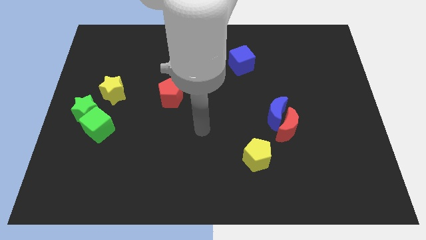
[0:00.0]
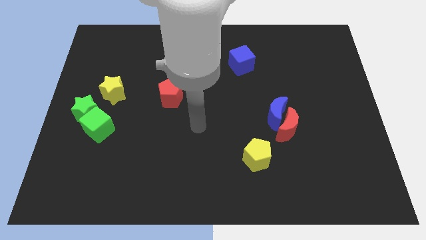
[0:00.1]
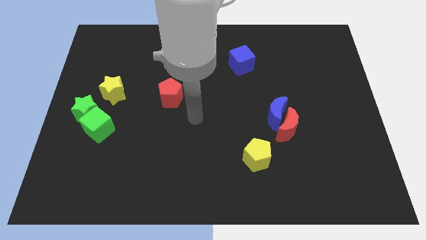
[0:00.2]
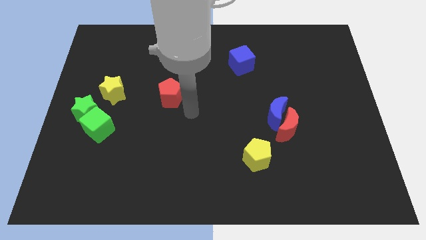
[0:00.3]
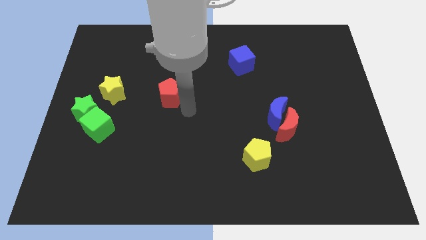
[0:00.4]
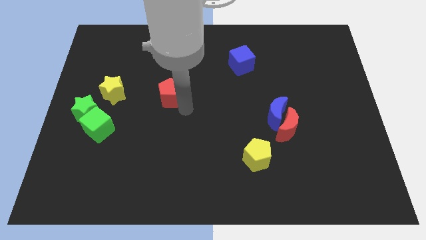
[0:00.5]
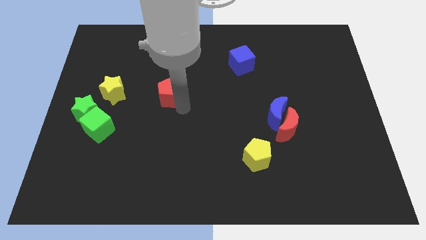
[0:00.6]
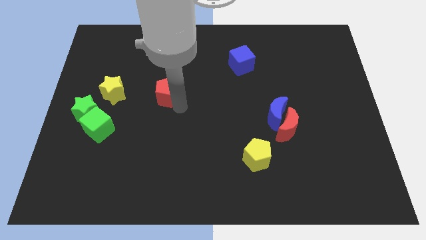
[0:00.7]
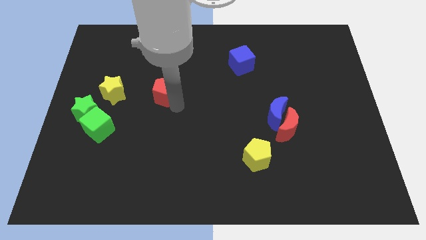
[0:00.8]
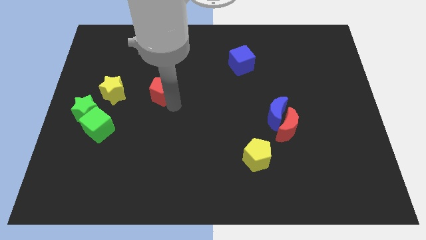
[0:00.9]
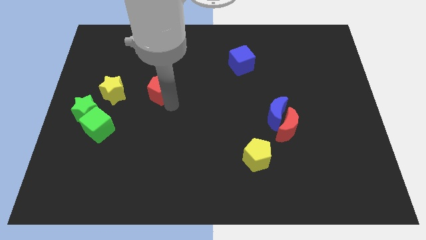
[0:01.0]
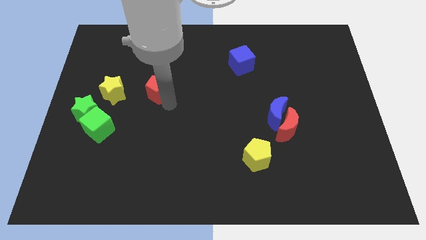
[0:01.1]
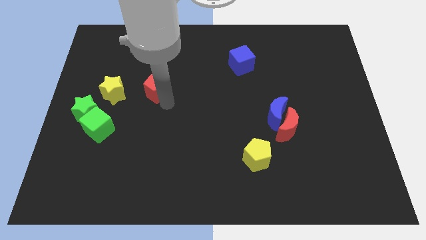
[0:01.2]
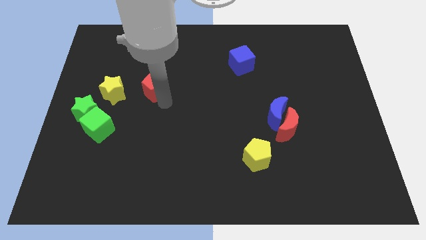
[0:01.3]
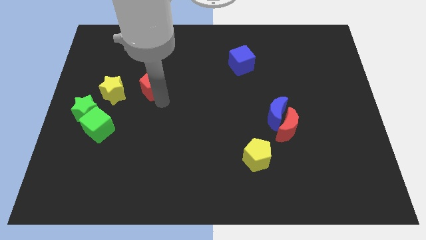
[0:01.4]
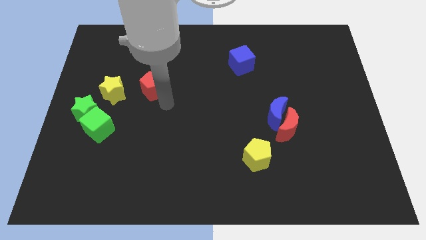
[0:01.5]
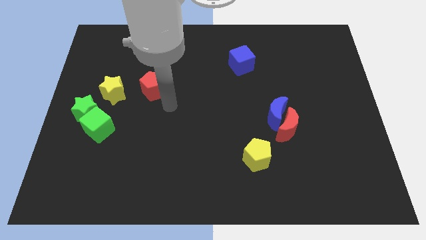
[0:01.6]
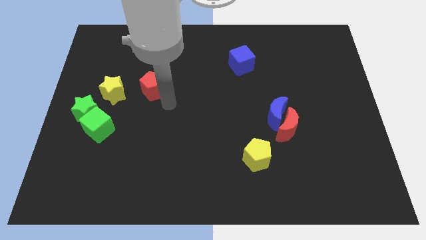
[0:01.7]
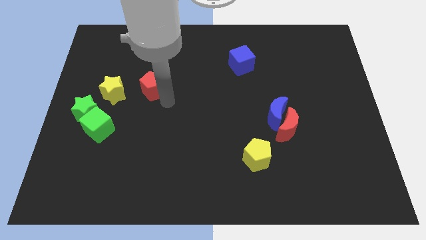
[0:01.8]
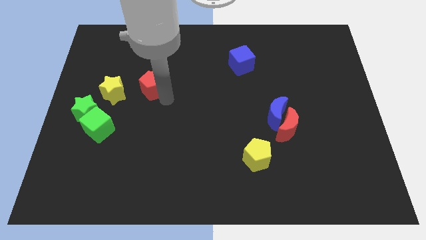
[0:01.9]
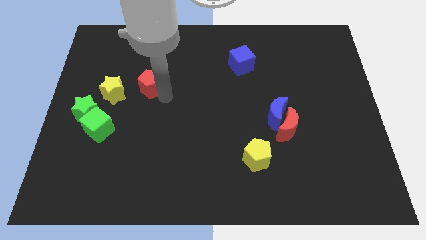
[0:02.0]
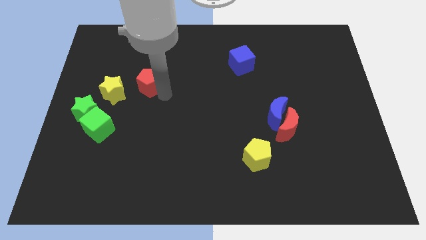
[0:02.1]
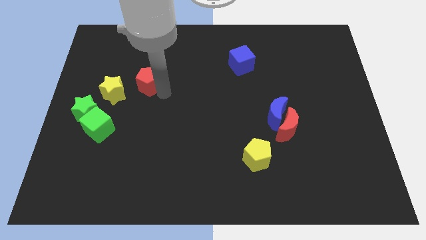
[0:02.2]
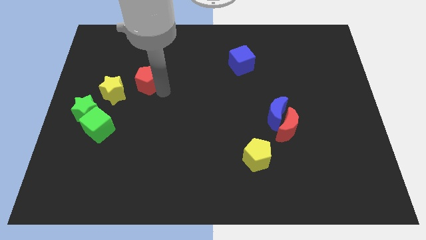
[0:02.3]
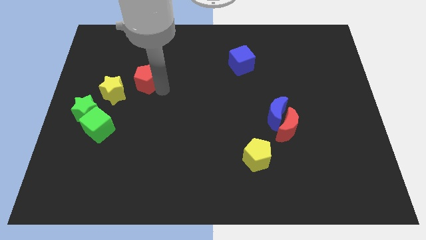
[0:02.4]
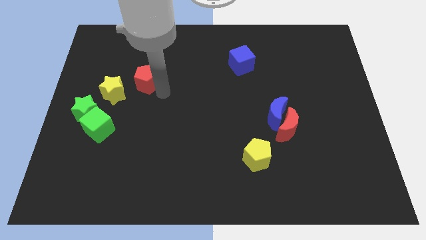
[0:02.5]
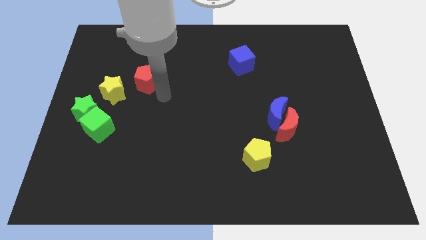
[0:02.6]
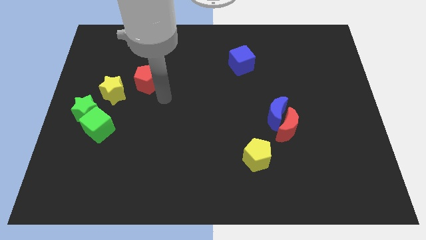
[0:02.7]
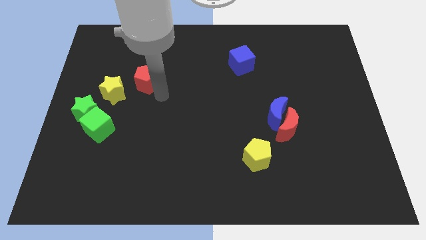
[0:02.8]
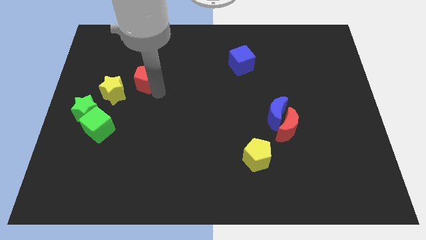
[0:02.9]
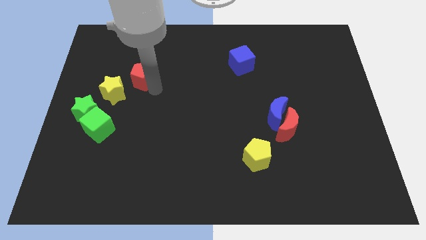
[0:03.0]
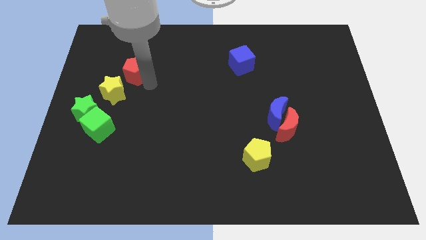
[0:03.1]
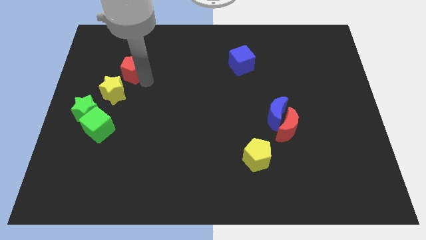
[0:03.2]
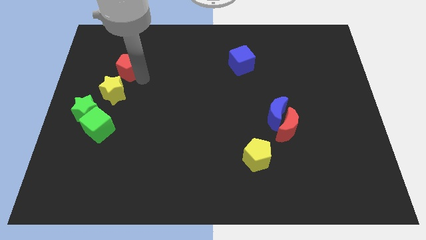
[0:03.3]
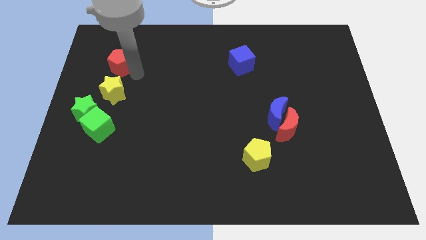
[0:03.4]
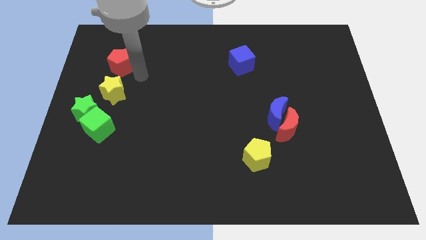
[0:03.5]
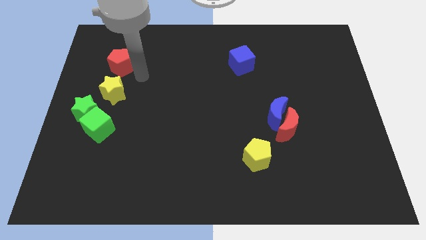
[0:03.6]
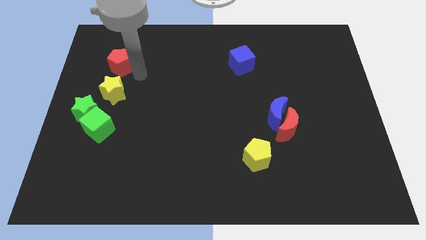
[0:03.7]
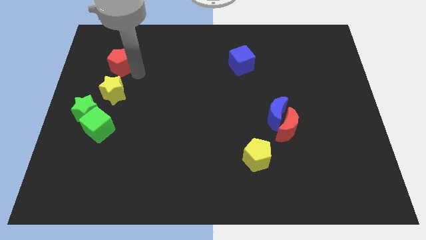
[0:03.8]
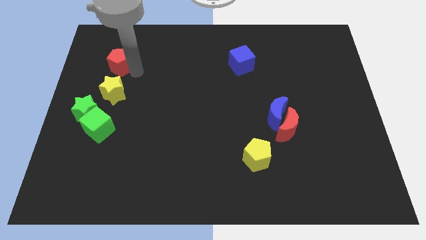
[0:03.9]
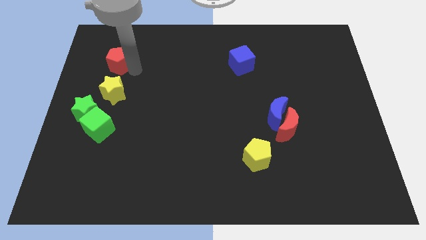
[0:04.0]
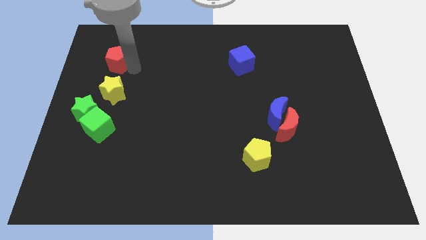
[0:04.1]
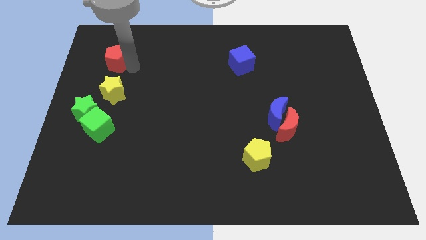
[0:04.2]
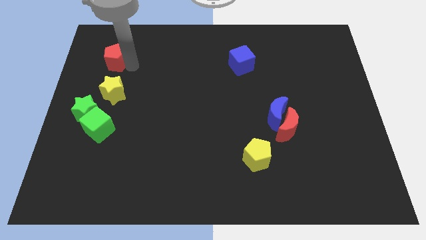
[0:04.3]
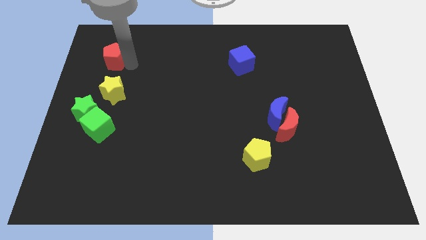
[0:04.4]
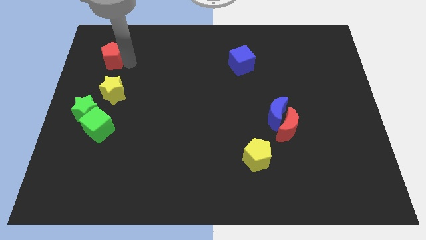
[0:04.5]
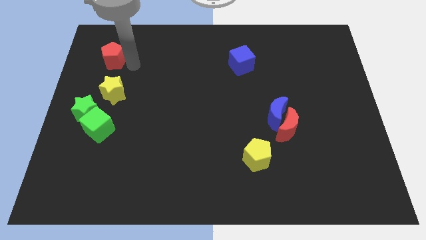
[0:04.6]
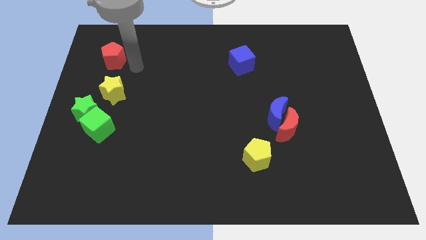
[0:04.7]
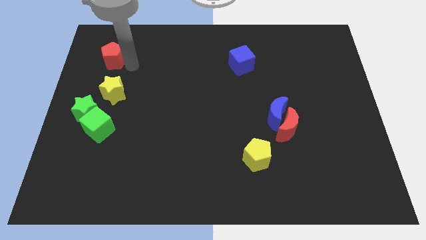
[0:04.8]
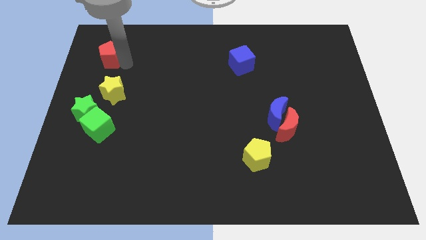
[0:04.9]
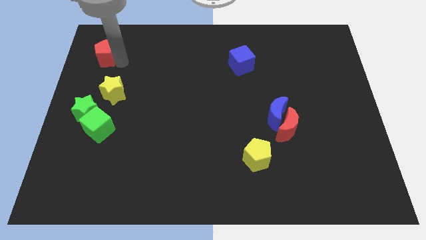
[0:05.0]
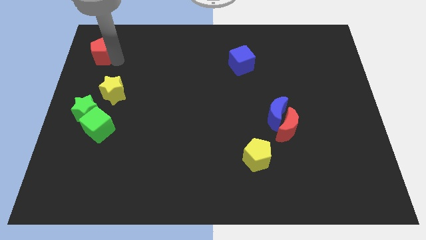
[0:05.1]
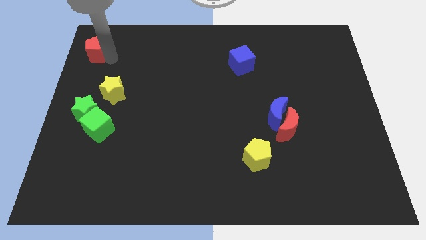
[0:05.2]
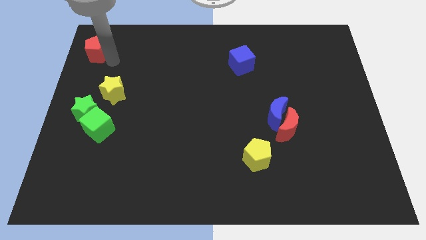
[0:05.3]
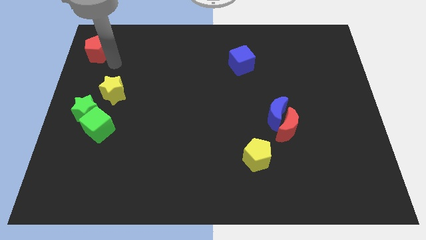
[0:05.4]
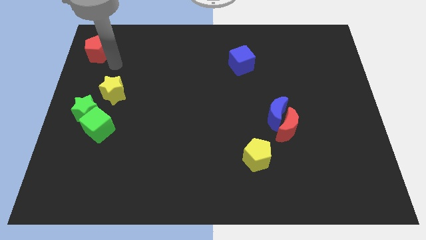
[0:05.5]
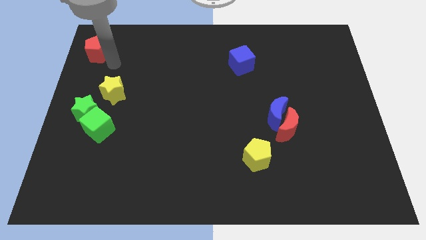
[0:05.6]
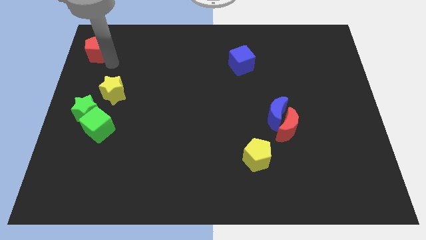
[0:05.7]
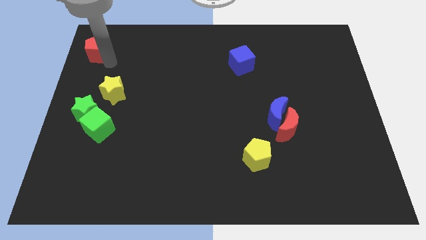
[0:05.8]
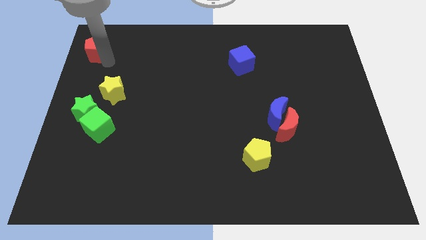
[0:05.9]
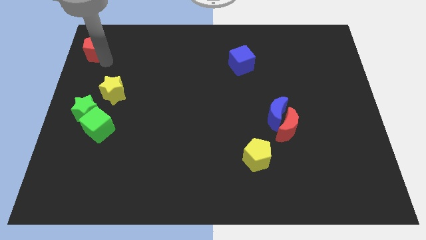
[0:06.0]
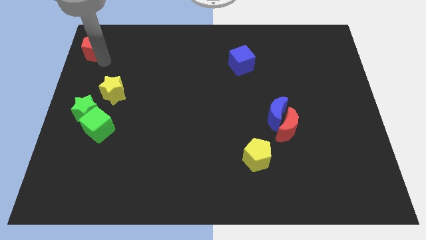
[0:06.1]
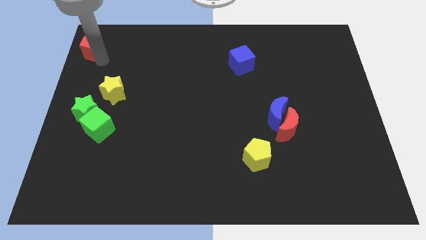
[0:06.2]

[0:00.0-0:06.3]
push the red pentagon to the top left corner

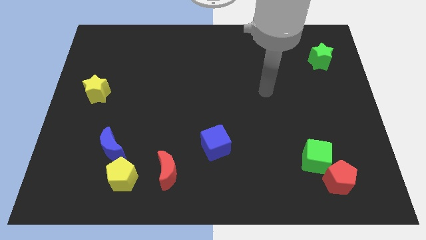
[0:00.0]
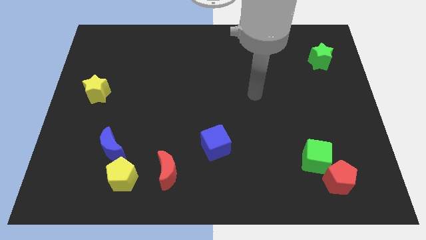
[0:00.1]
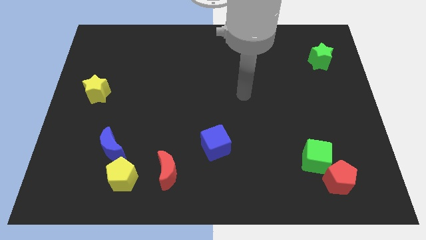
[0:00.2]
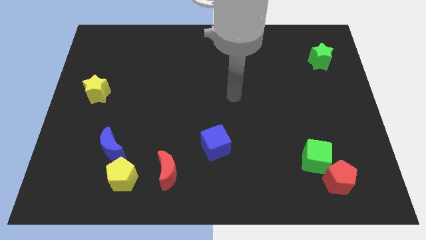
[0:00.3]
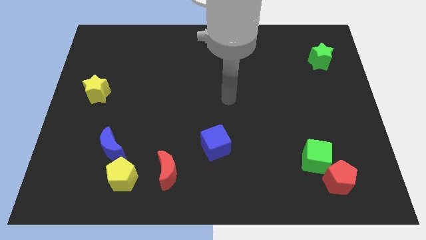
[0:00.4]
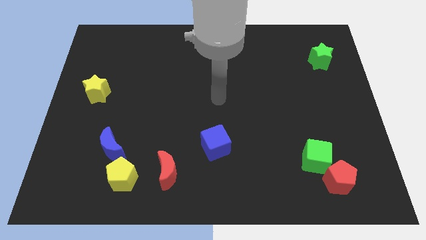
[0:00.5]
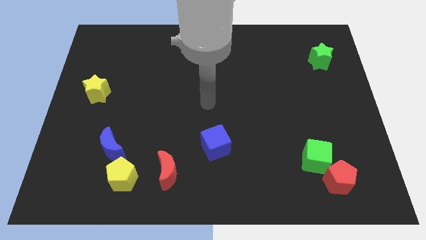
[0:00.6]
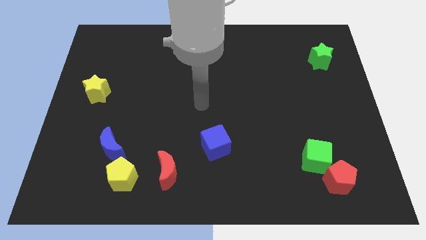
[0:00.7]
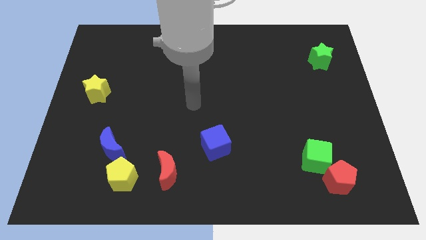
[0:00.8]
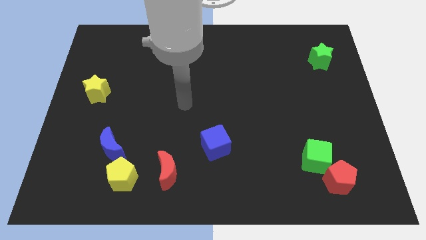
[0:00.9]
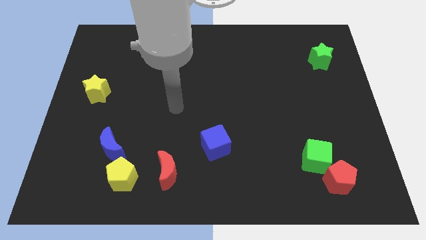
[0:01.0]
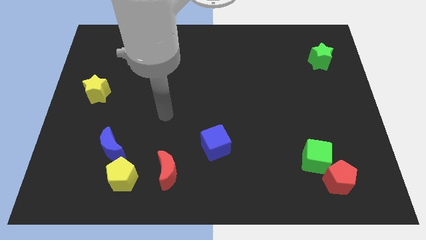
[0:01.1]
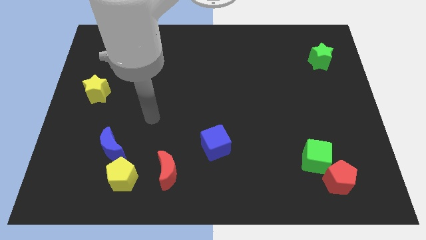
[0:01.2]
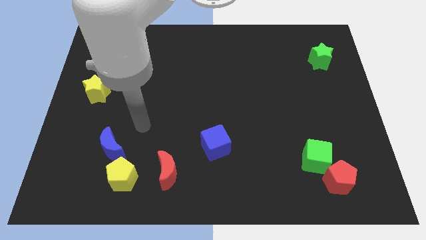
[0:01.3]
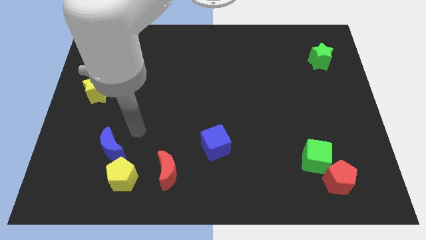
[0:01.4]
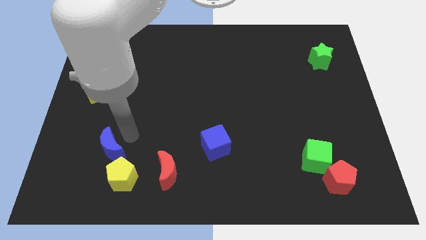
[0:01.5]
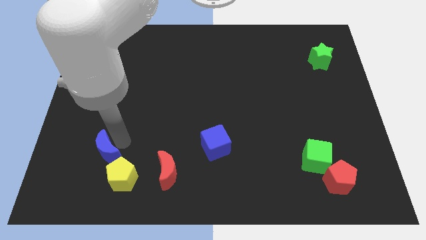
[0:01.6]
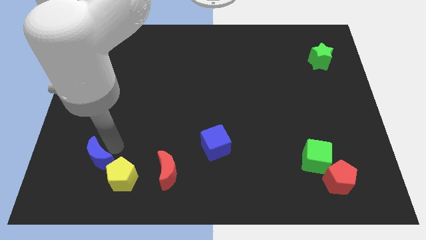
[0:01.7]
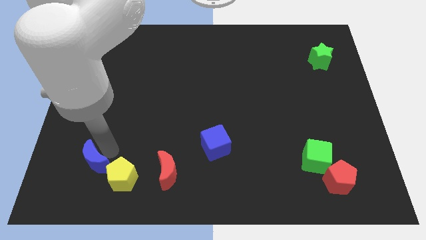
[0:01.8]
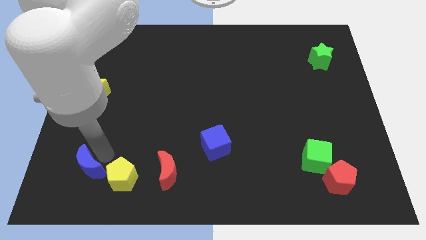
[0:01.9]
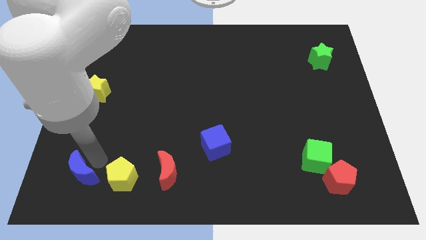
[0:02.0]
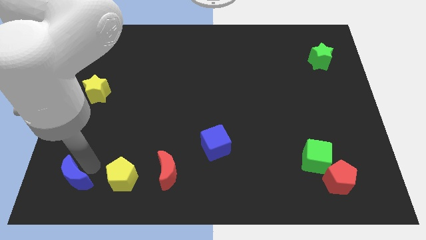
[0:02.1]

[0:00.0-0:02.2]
move the blue moon to the bottom left of the board
